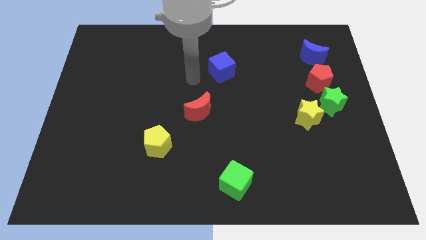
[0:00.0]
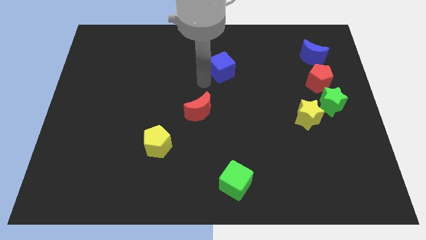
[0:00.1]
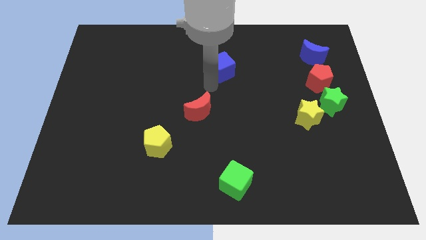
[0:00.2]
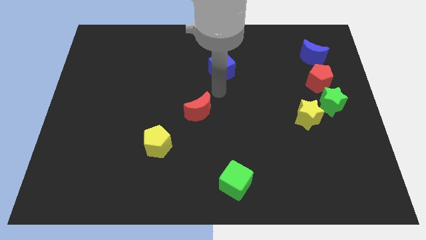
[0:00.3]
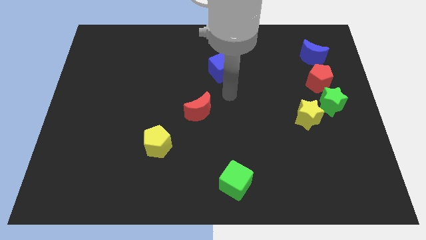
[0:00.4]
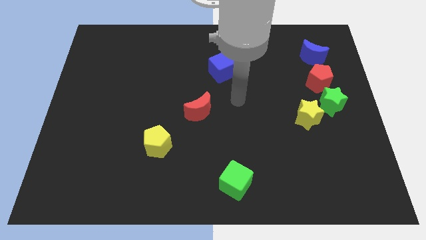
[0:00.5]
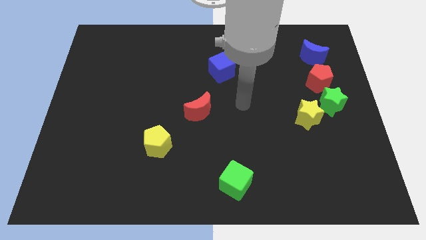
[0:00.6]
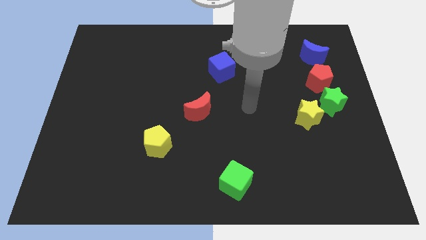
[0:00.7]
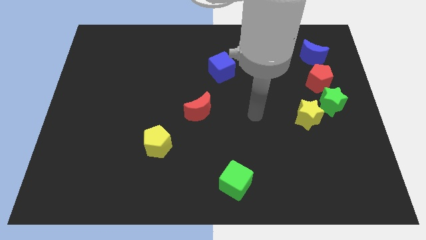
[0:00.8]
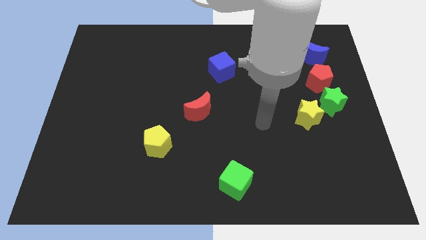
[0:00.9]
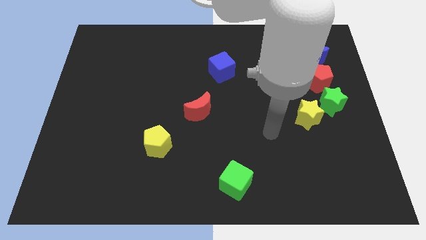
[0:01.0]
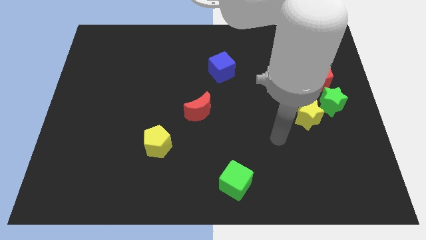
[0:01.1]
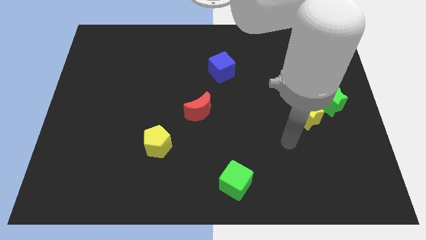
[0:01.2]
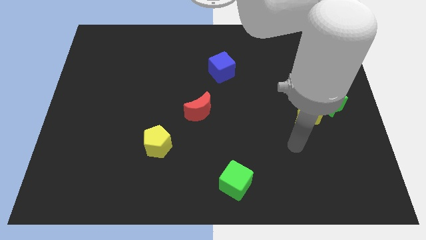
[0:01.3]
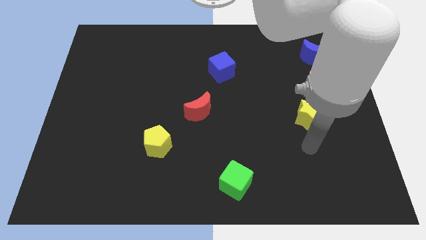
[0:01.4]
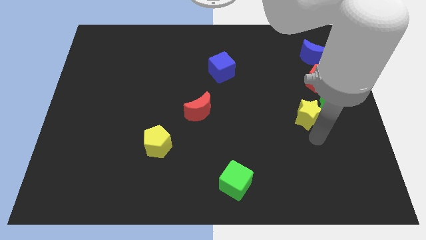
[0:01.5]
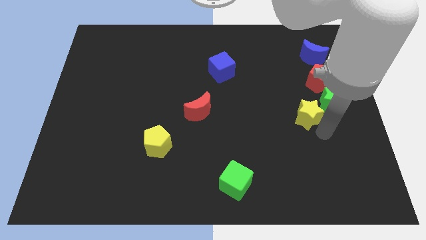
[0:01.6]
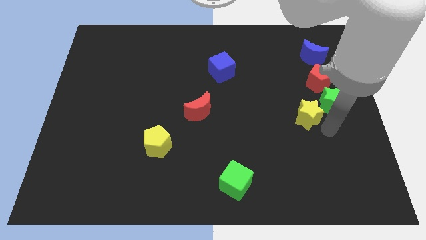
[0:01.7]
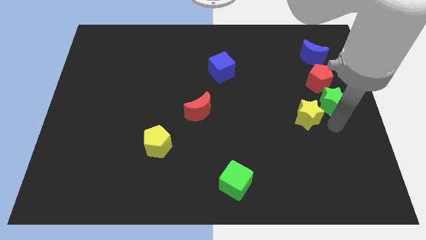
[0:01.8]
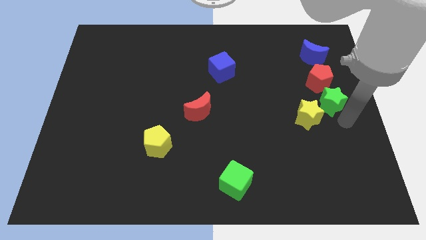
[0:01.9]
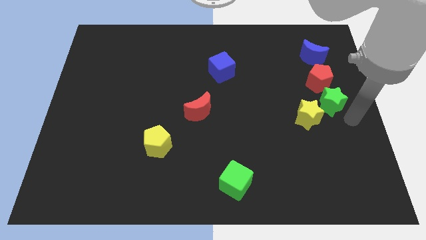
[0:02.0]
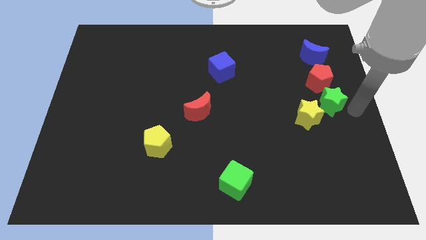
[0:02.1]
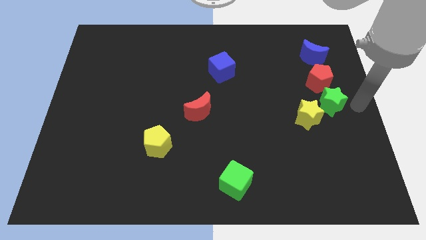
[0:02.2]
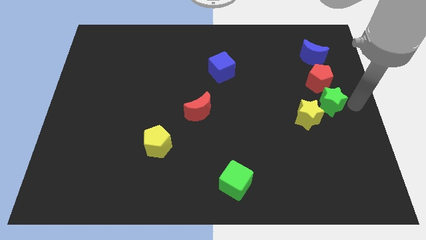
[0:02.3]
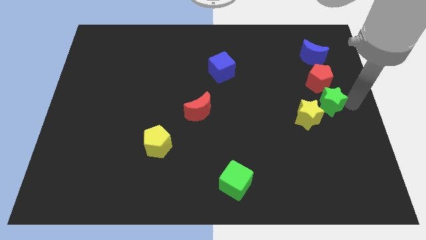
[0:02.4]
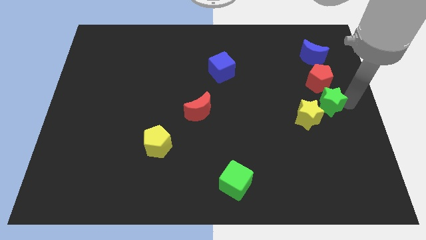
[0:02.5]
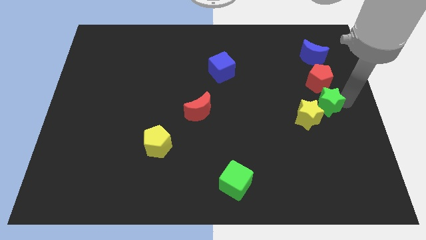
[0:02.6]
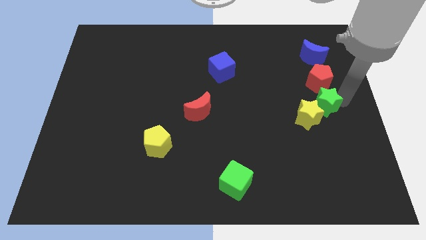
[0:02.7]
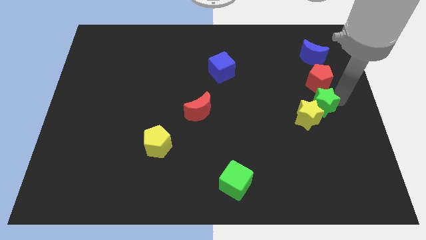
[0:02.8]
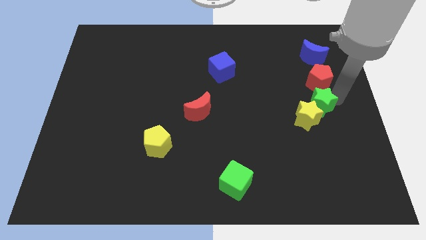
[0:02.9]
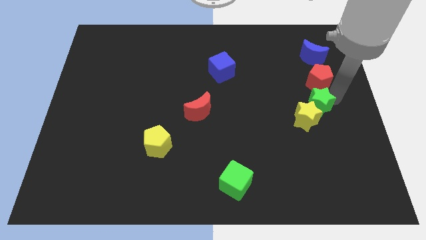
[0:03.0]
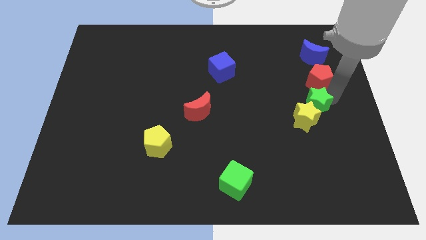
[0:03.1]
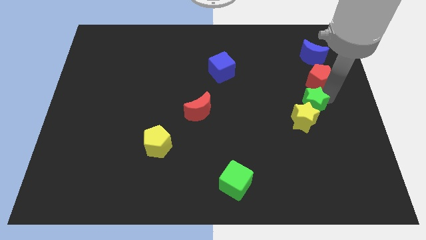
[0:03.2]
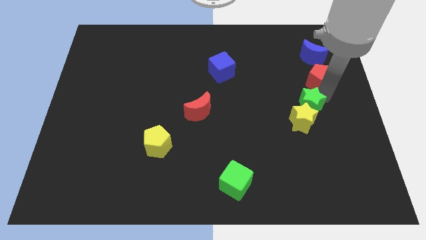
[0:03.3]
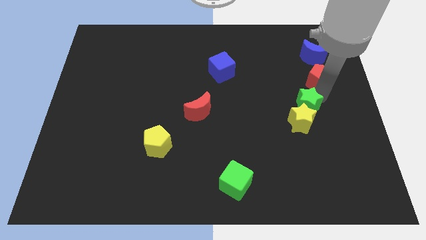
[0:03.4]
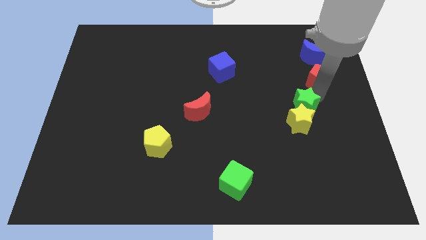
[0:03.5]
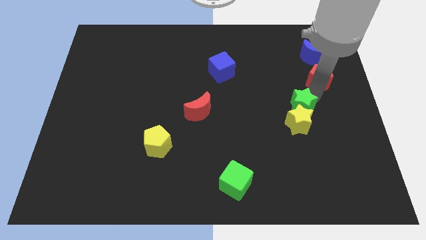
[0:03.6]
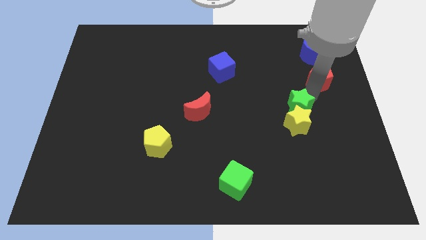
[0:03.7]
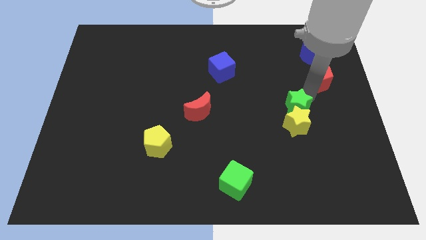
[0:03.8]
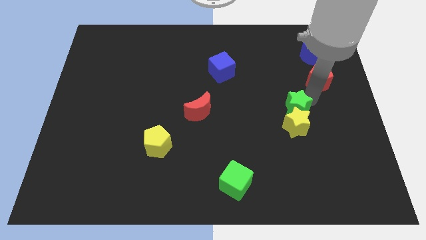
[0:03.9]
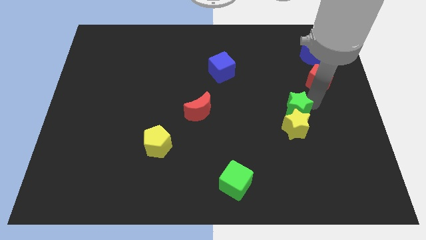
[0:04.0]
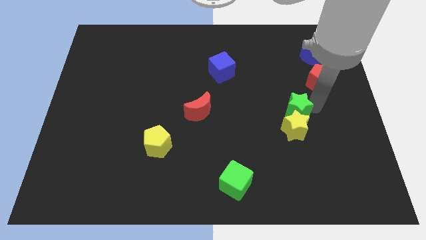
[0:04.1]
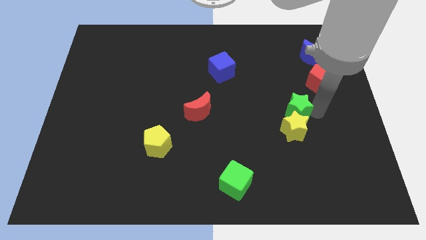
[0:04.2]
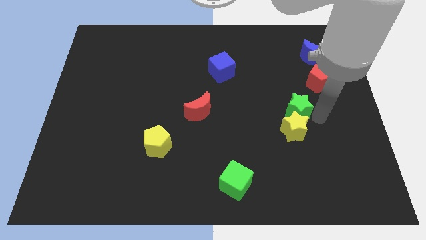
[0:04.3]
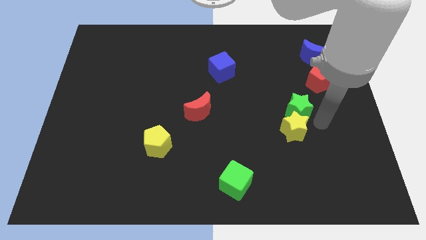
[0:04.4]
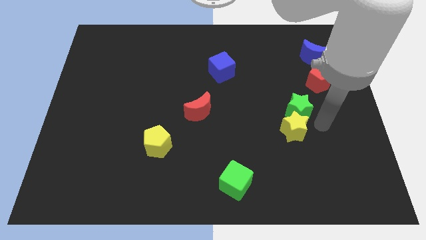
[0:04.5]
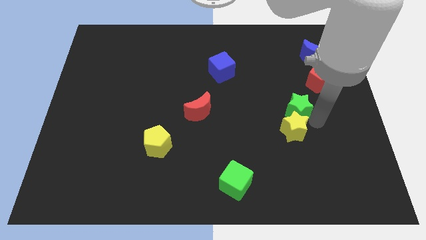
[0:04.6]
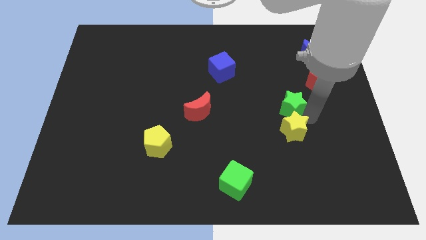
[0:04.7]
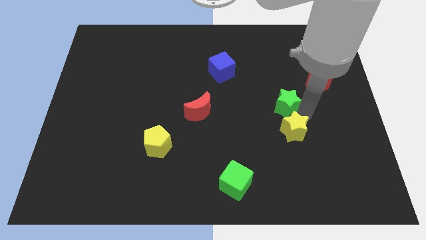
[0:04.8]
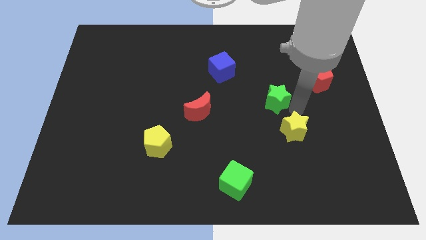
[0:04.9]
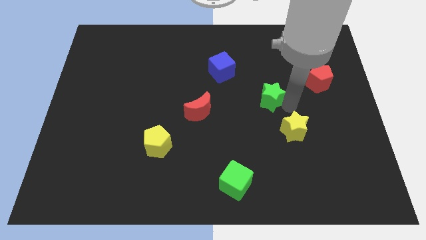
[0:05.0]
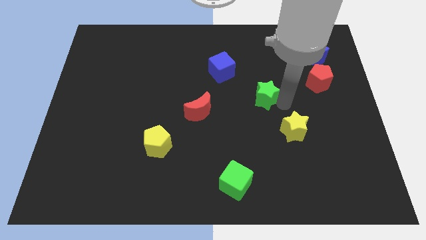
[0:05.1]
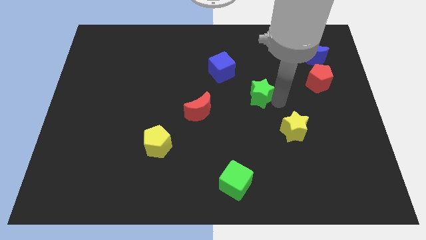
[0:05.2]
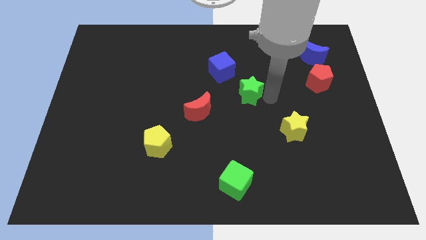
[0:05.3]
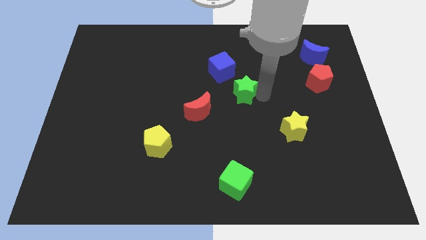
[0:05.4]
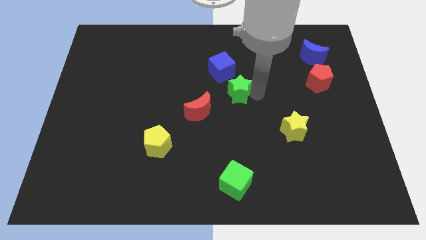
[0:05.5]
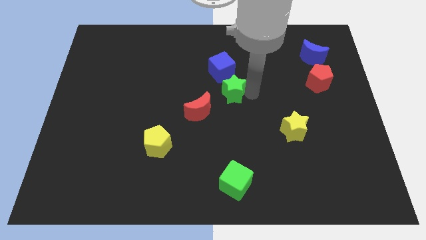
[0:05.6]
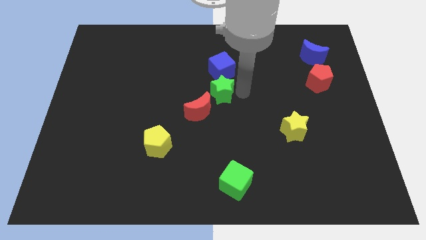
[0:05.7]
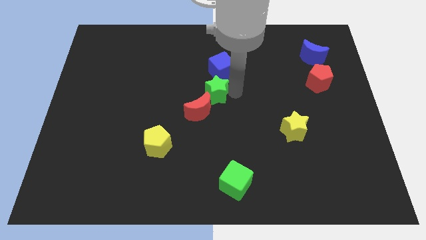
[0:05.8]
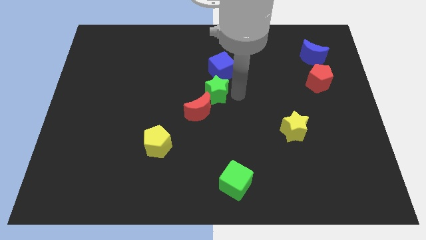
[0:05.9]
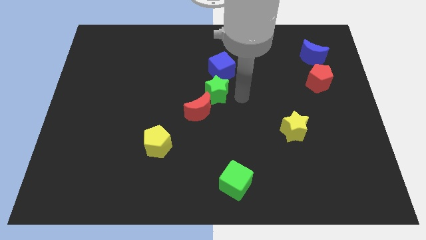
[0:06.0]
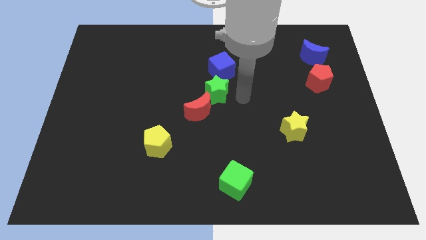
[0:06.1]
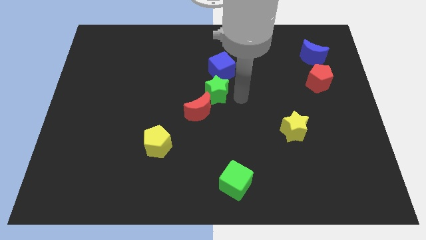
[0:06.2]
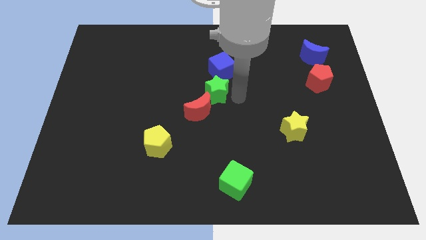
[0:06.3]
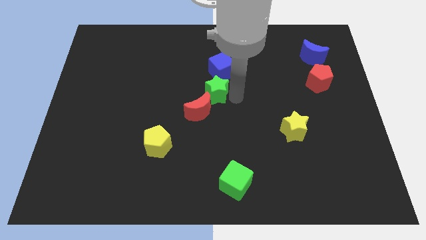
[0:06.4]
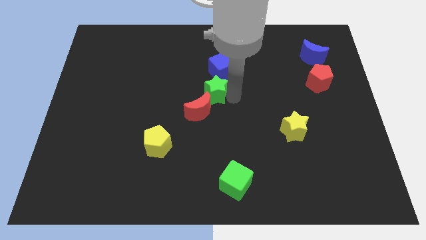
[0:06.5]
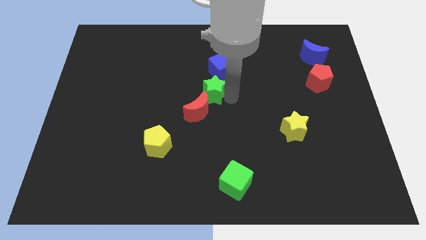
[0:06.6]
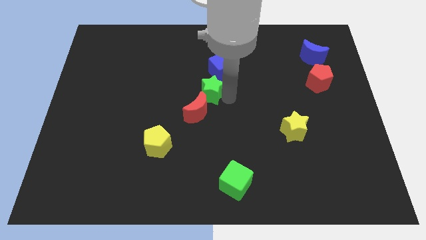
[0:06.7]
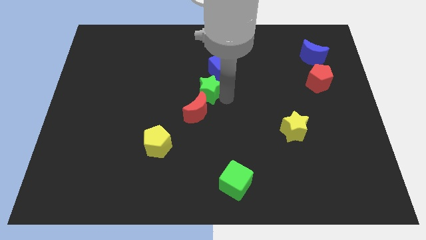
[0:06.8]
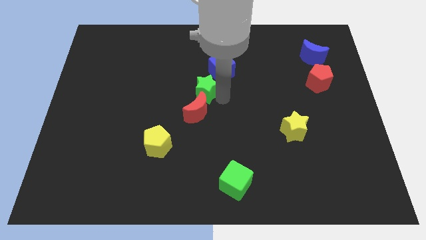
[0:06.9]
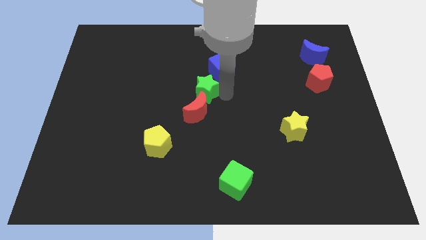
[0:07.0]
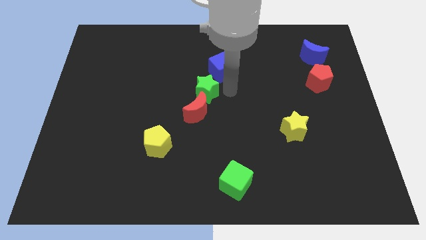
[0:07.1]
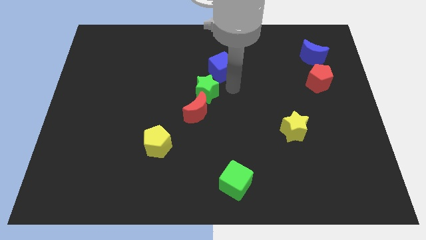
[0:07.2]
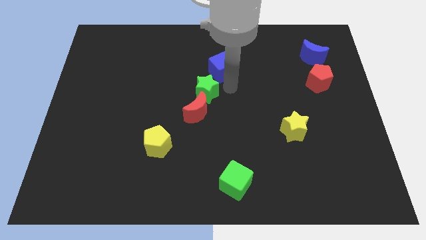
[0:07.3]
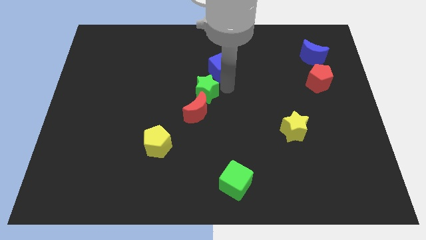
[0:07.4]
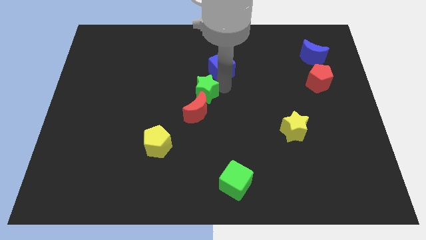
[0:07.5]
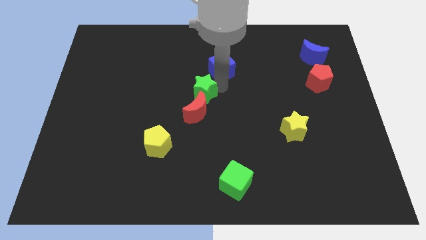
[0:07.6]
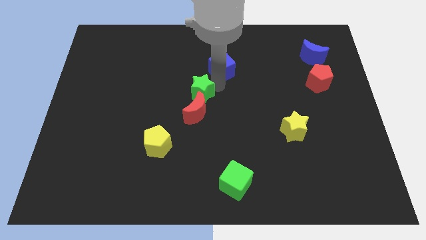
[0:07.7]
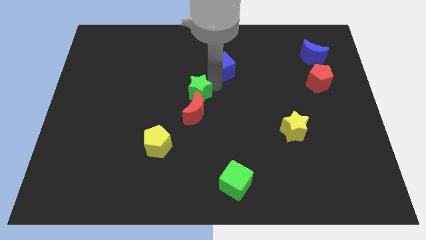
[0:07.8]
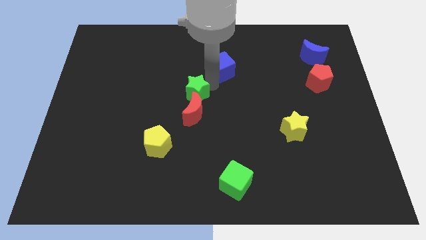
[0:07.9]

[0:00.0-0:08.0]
put the green star diagonally up and to the left of the red moon
